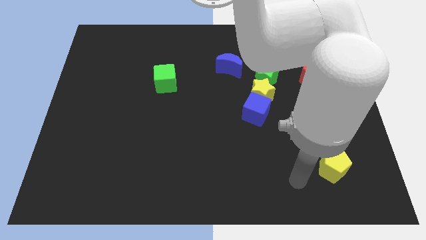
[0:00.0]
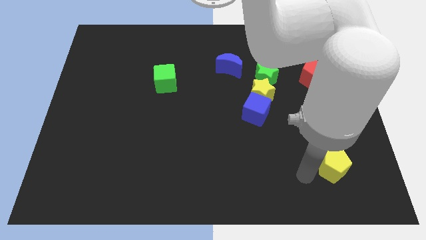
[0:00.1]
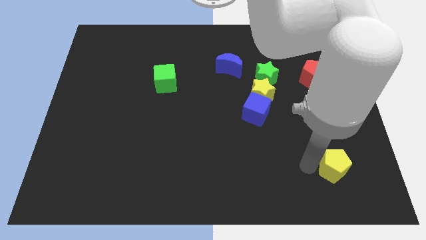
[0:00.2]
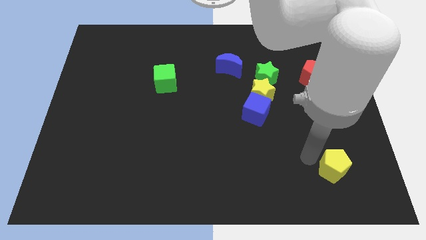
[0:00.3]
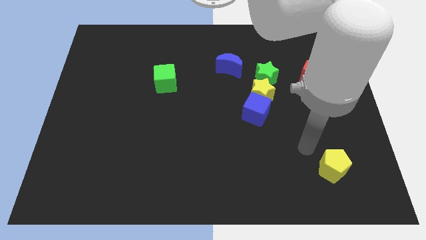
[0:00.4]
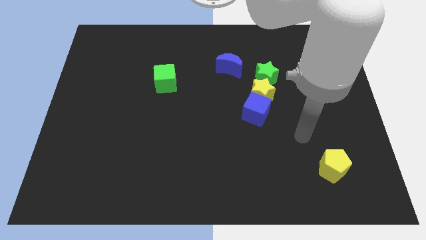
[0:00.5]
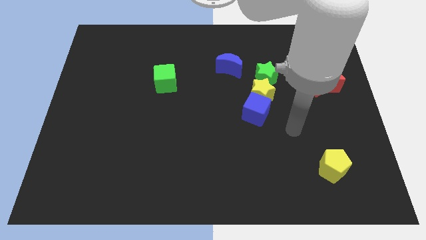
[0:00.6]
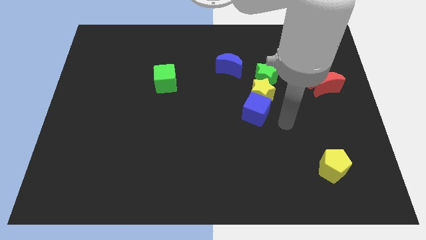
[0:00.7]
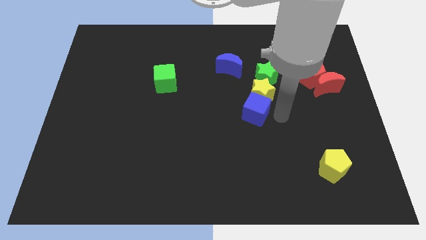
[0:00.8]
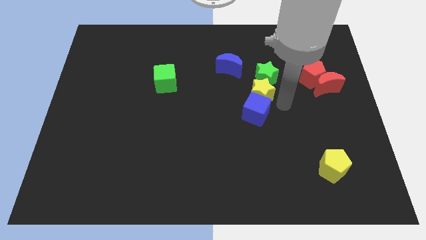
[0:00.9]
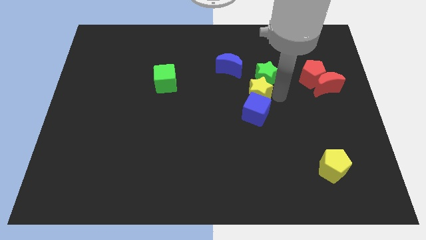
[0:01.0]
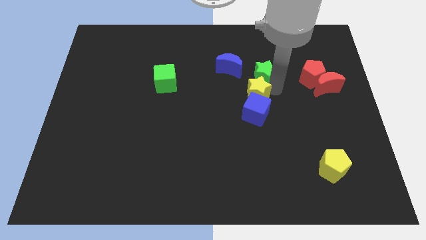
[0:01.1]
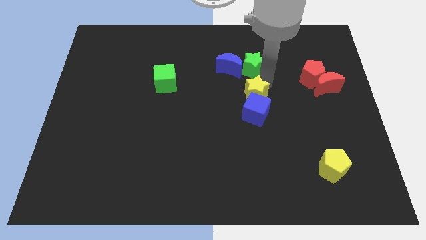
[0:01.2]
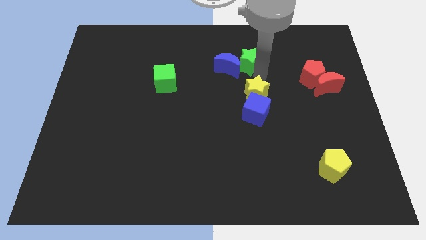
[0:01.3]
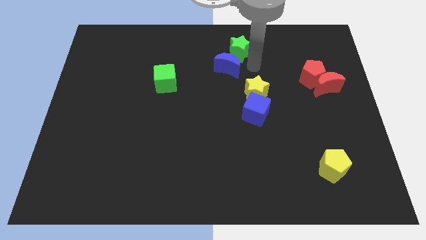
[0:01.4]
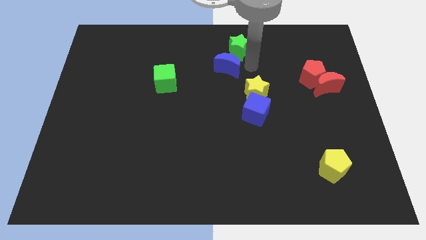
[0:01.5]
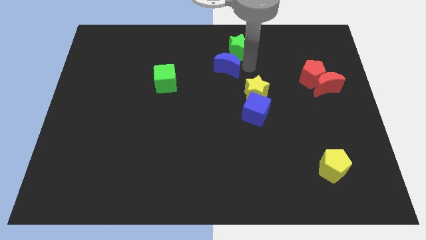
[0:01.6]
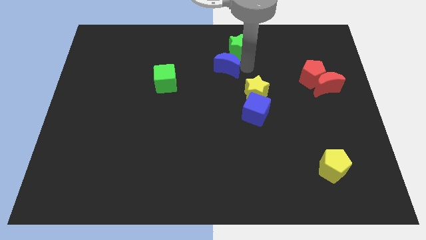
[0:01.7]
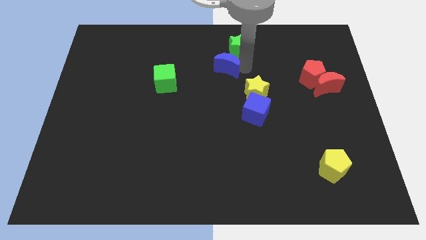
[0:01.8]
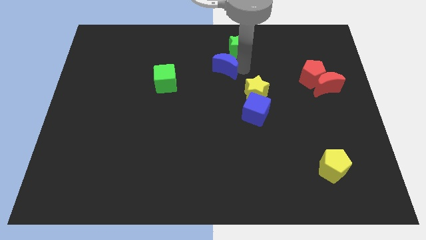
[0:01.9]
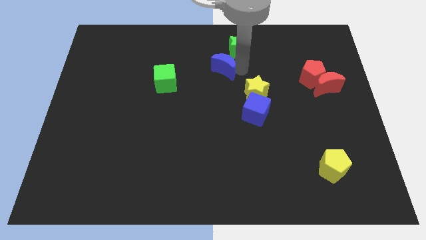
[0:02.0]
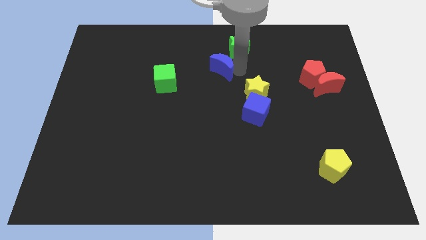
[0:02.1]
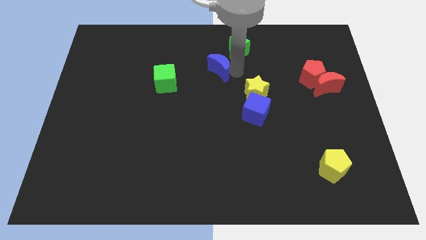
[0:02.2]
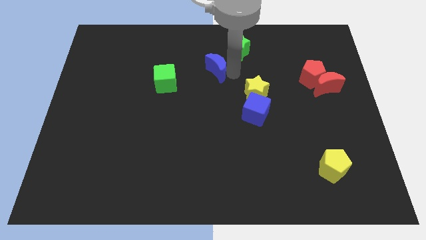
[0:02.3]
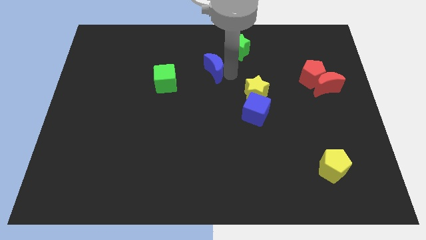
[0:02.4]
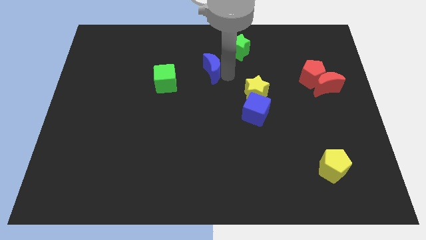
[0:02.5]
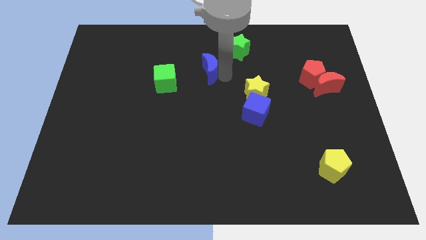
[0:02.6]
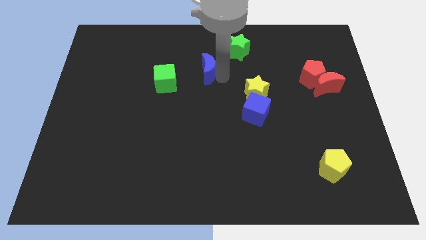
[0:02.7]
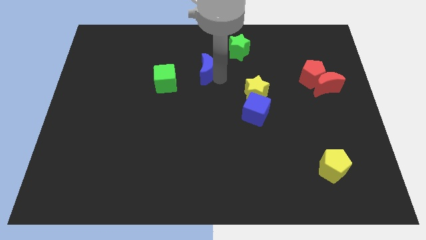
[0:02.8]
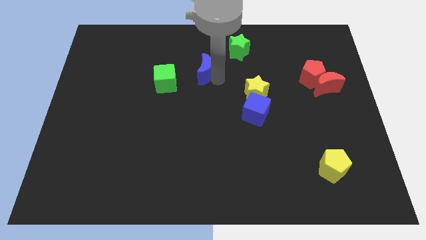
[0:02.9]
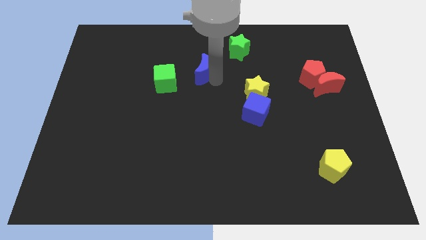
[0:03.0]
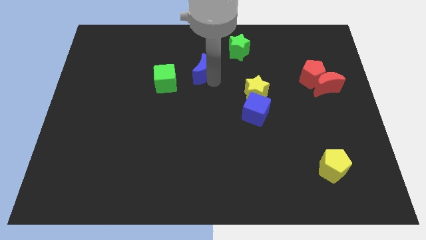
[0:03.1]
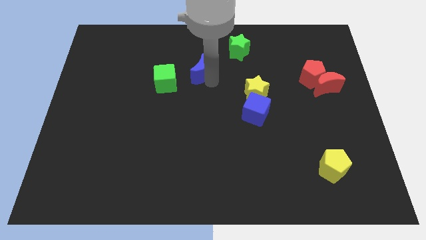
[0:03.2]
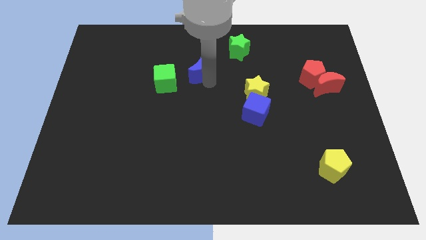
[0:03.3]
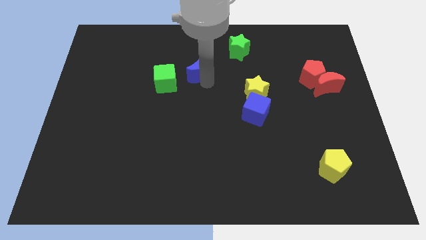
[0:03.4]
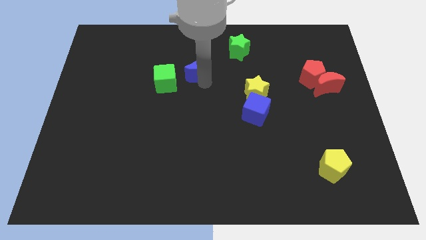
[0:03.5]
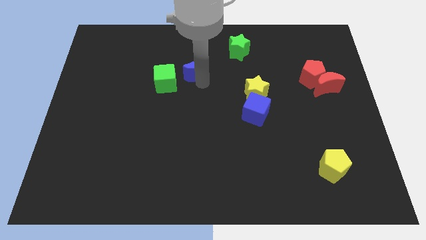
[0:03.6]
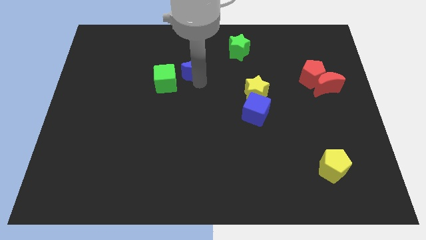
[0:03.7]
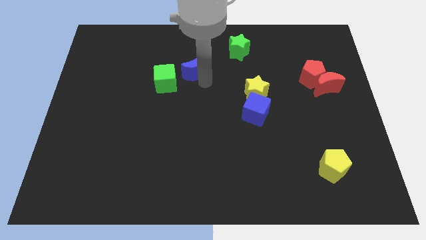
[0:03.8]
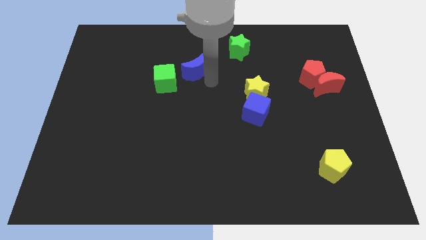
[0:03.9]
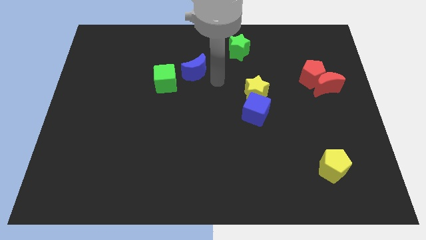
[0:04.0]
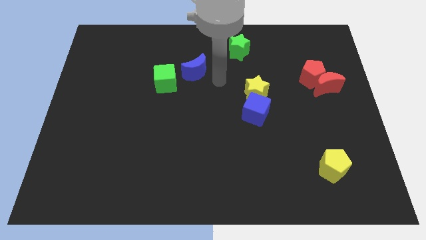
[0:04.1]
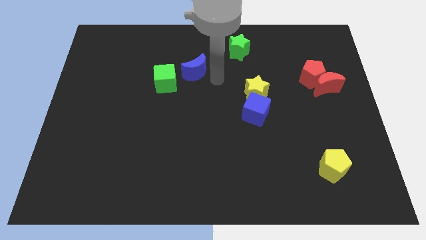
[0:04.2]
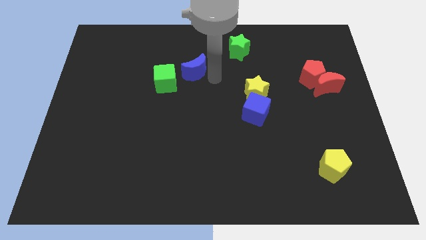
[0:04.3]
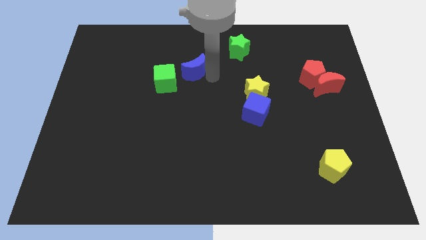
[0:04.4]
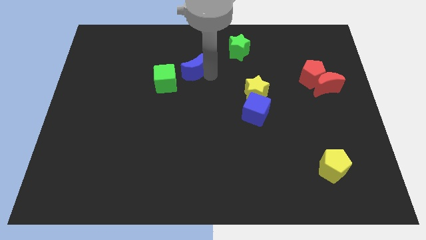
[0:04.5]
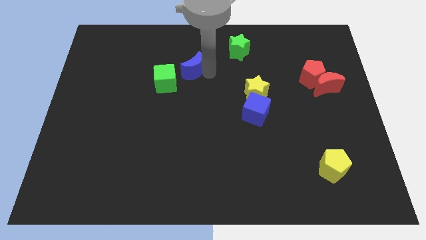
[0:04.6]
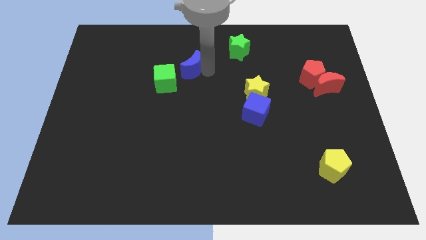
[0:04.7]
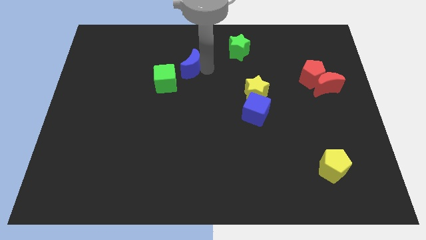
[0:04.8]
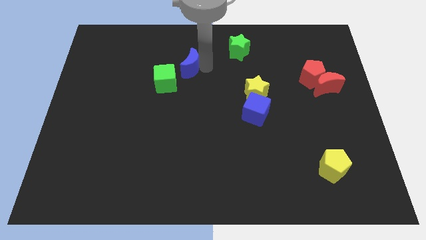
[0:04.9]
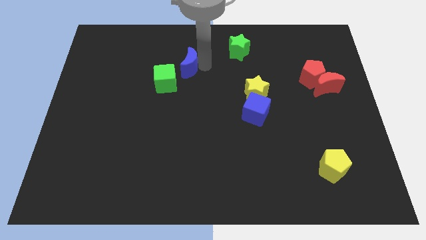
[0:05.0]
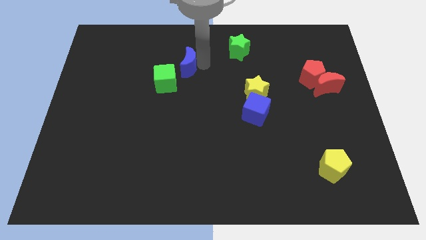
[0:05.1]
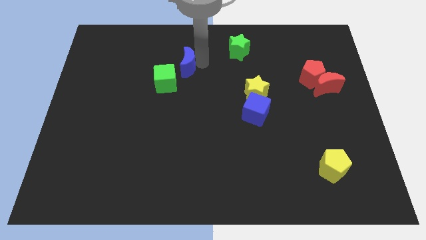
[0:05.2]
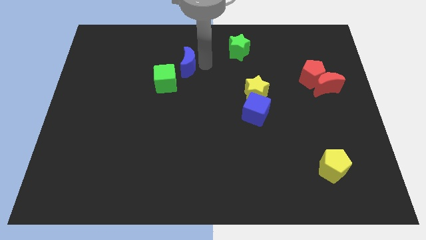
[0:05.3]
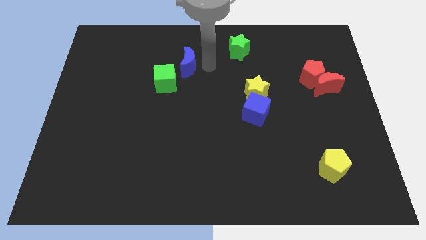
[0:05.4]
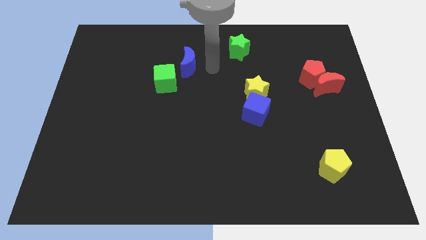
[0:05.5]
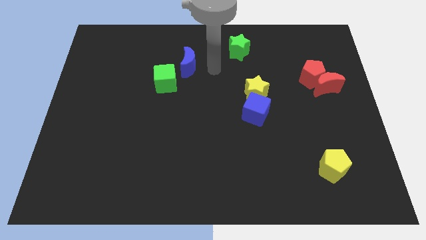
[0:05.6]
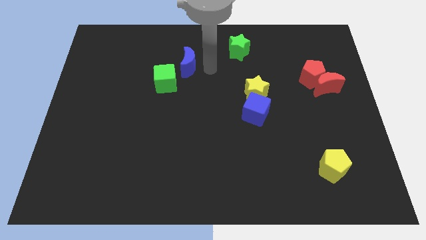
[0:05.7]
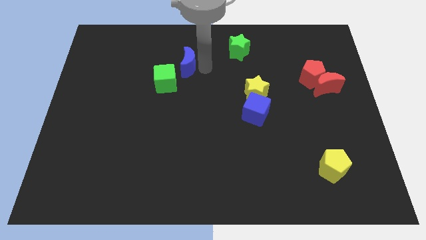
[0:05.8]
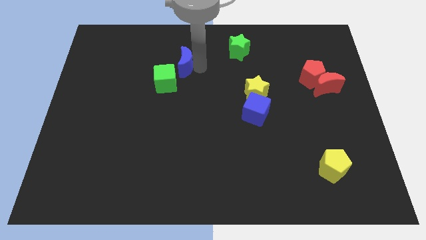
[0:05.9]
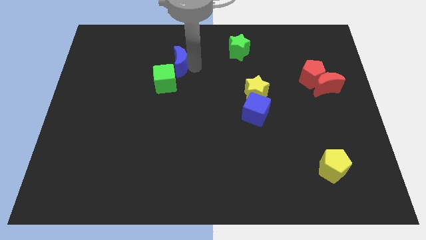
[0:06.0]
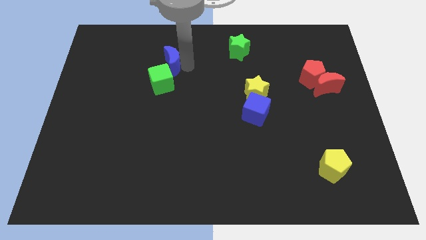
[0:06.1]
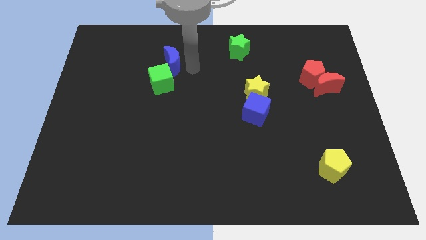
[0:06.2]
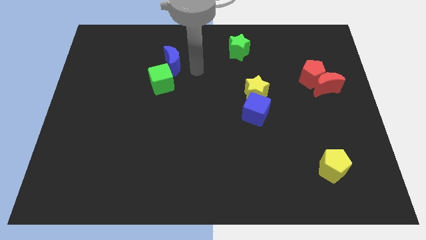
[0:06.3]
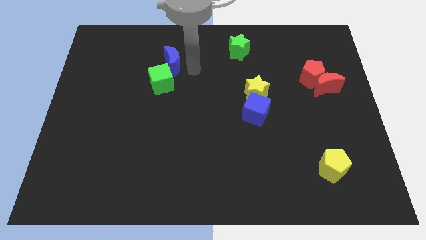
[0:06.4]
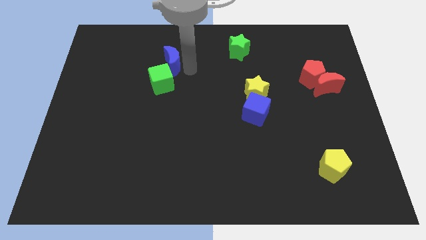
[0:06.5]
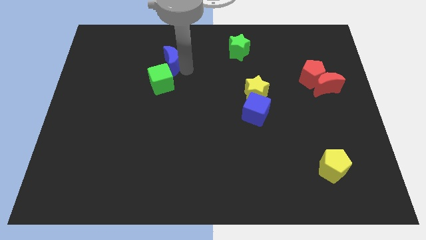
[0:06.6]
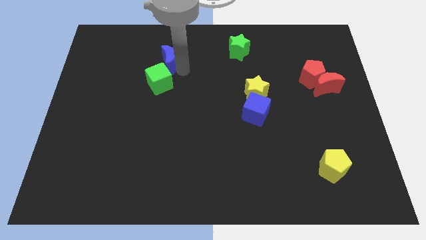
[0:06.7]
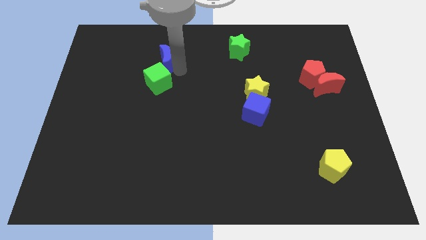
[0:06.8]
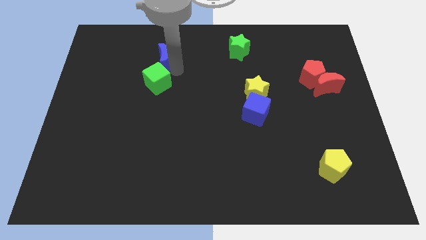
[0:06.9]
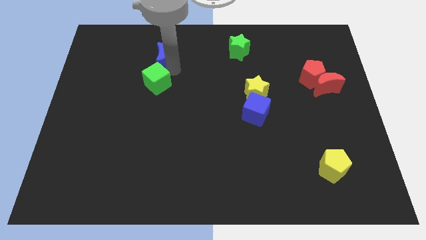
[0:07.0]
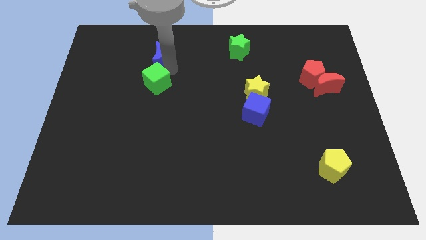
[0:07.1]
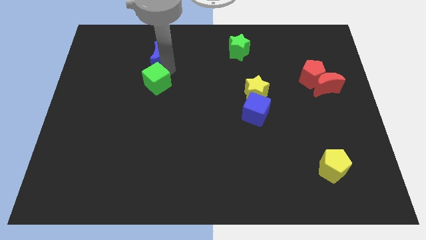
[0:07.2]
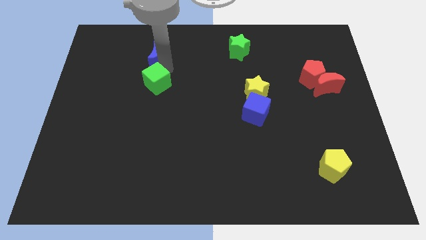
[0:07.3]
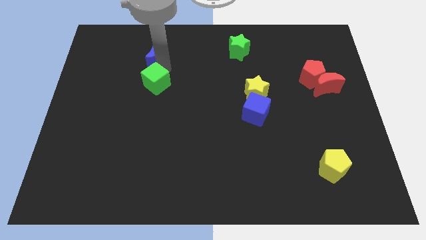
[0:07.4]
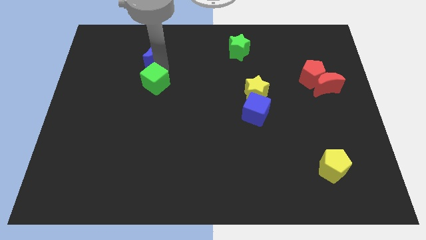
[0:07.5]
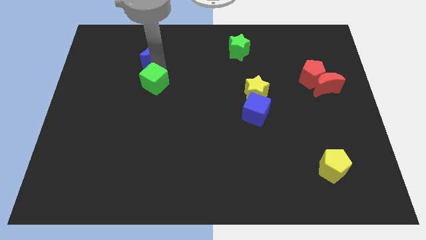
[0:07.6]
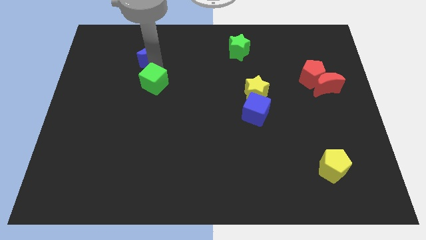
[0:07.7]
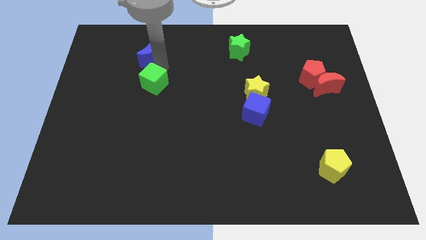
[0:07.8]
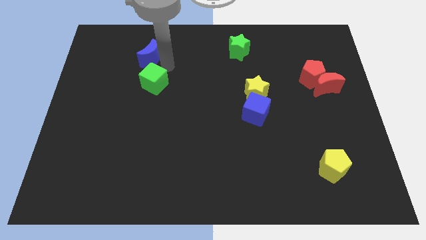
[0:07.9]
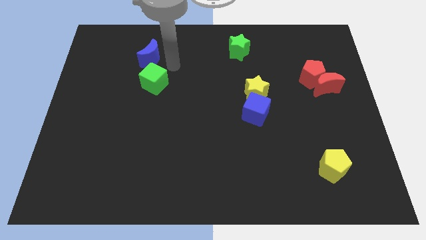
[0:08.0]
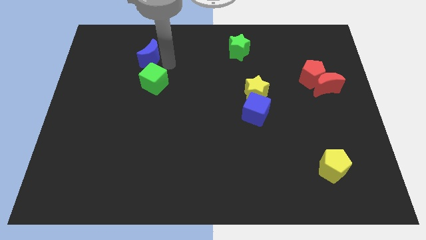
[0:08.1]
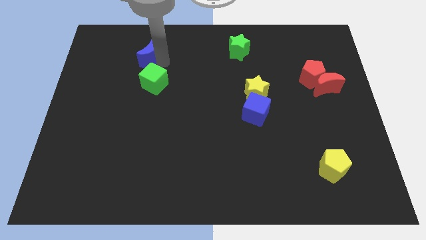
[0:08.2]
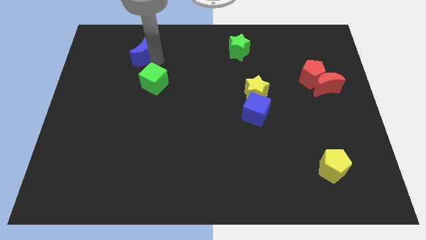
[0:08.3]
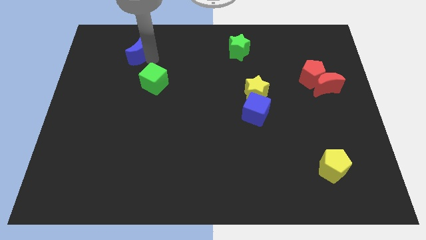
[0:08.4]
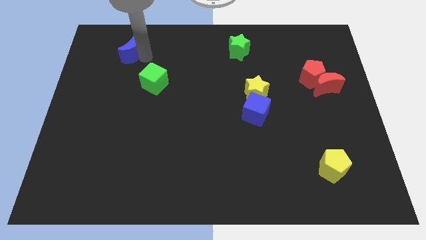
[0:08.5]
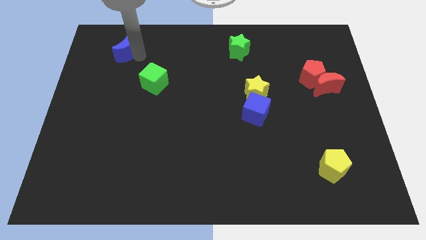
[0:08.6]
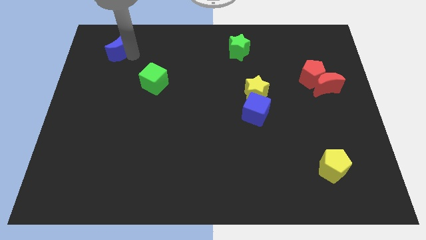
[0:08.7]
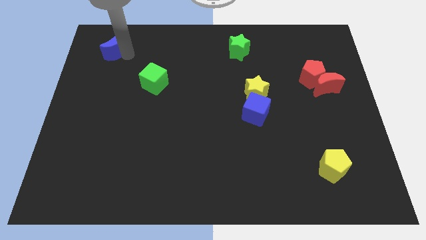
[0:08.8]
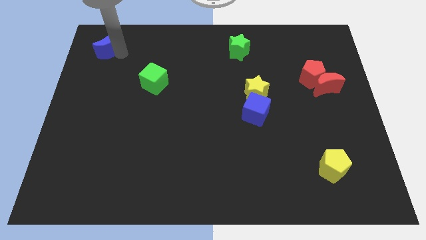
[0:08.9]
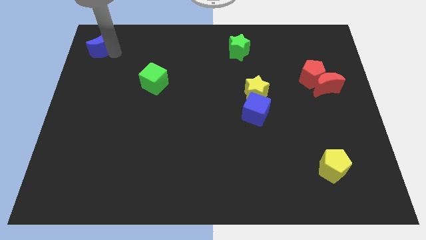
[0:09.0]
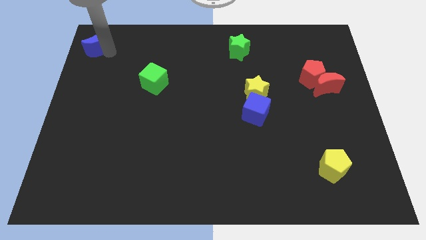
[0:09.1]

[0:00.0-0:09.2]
slide the blue moon to the upper left corner
